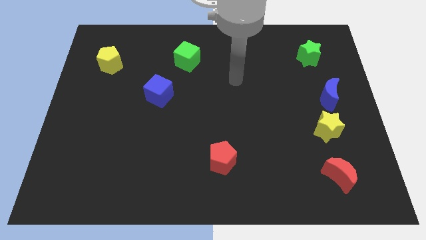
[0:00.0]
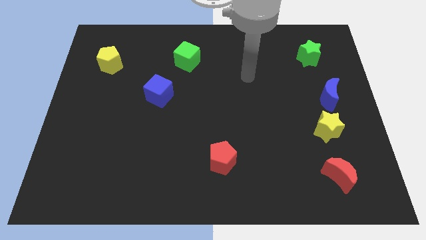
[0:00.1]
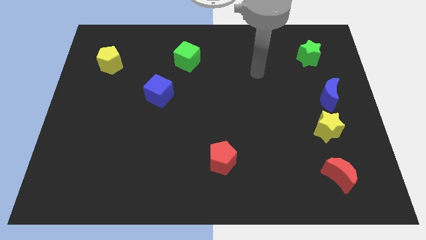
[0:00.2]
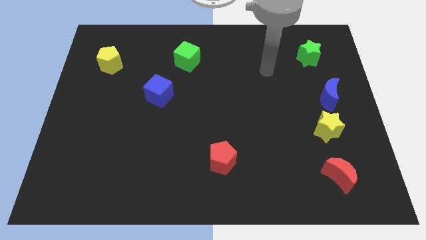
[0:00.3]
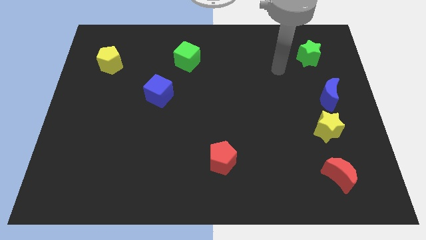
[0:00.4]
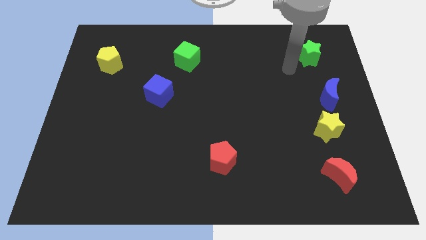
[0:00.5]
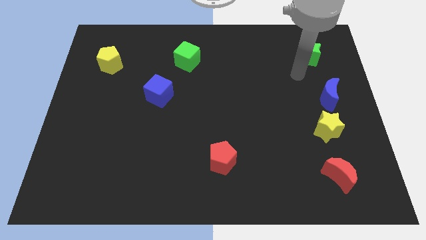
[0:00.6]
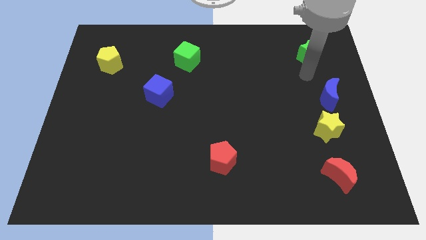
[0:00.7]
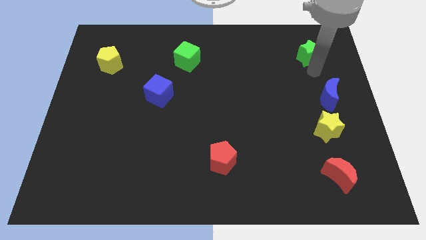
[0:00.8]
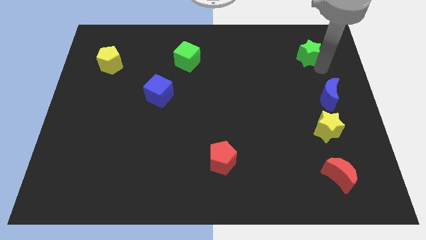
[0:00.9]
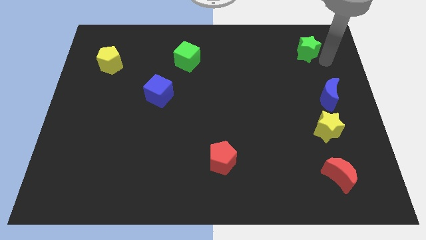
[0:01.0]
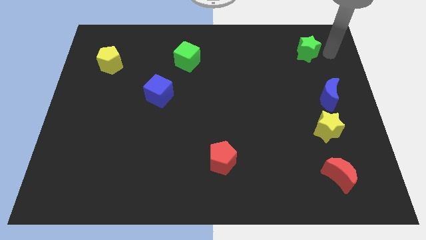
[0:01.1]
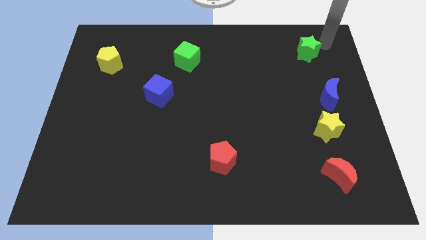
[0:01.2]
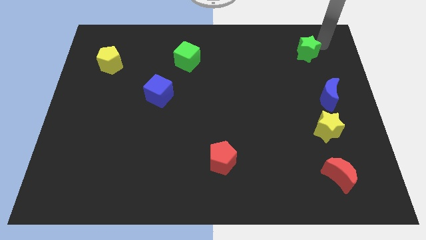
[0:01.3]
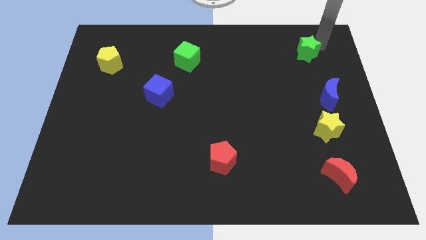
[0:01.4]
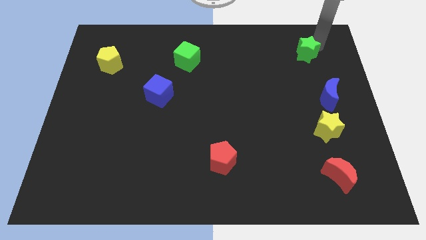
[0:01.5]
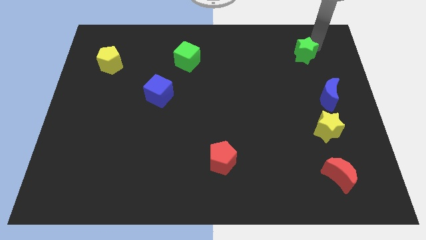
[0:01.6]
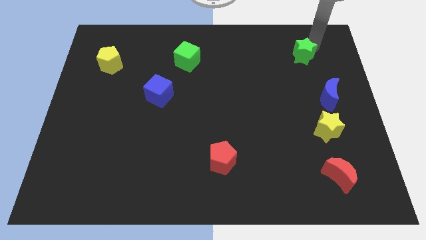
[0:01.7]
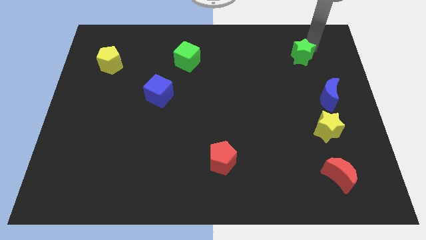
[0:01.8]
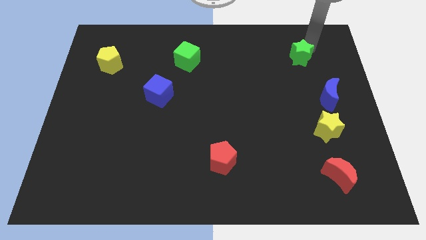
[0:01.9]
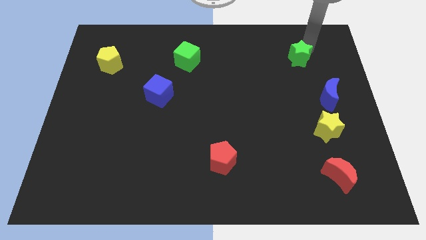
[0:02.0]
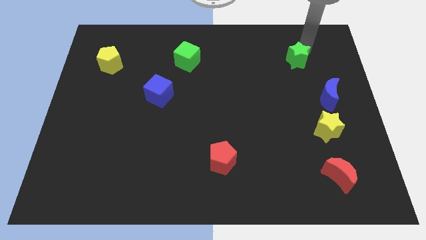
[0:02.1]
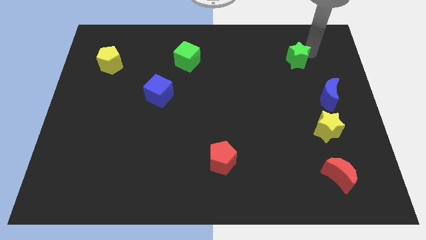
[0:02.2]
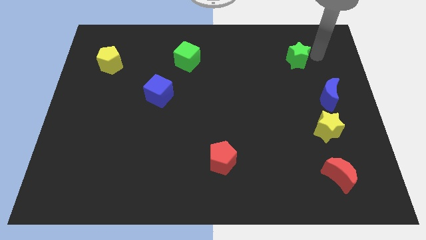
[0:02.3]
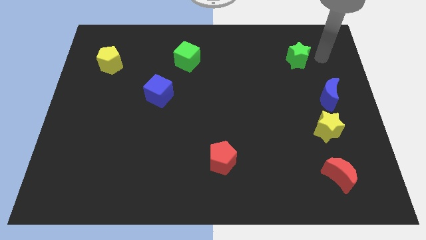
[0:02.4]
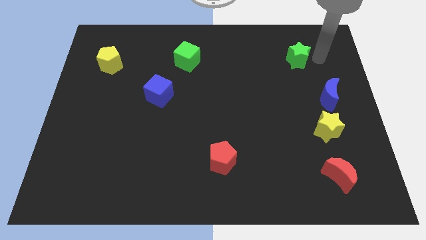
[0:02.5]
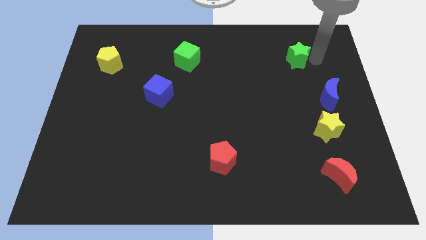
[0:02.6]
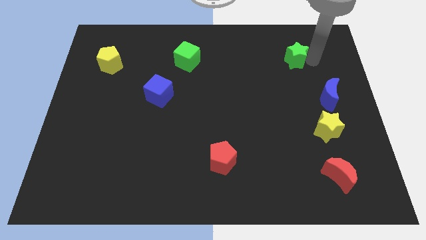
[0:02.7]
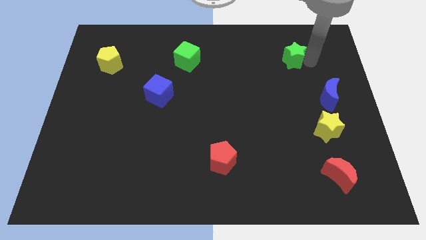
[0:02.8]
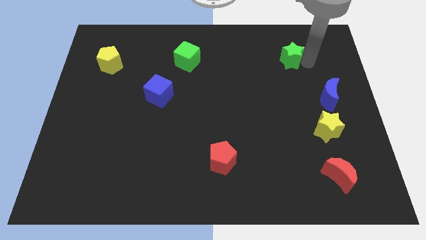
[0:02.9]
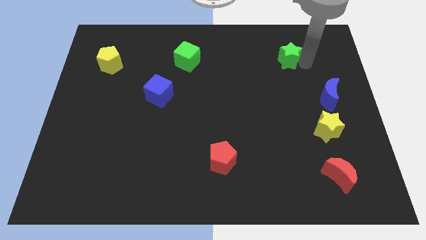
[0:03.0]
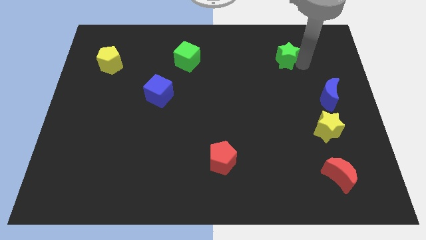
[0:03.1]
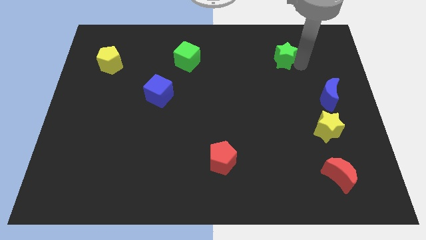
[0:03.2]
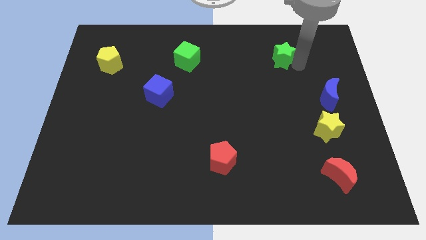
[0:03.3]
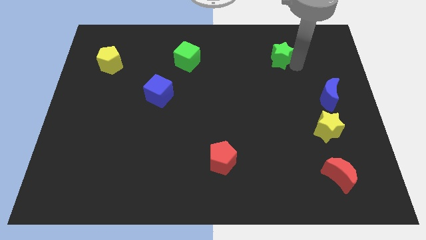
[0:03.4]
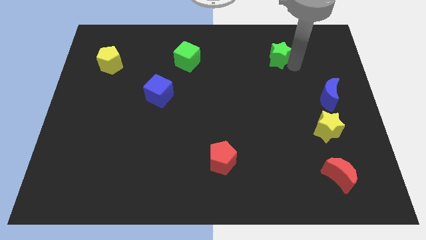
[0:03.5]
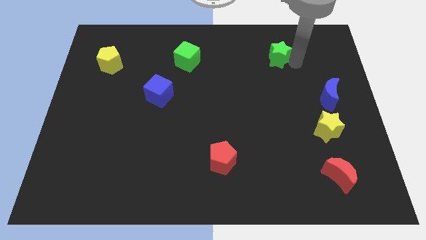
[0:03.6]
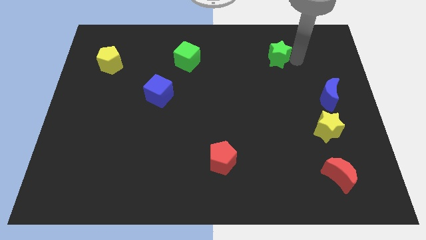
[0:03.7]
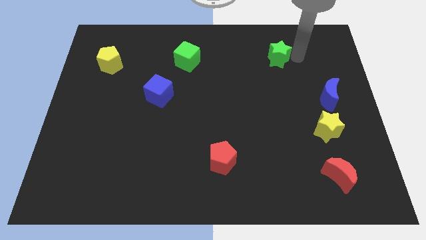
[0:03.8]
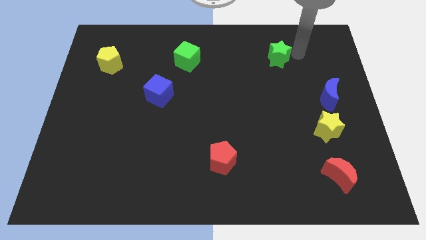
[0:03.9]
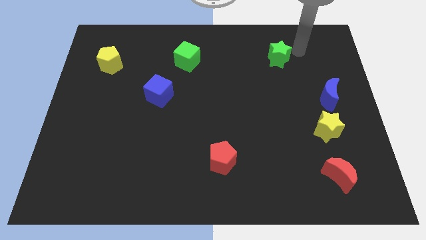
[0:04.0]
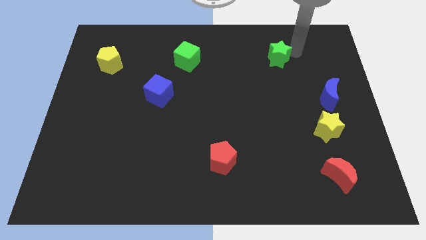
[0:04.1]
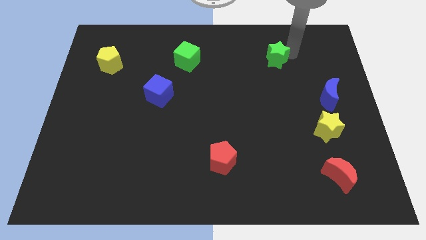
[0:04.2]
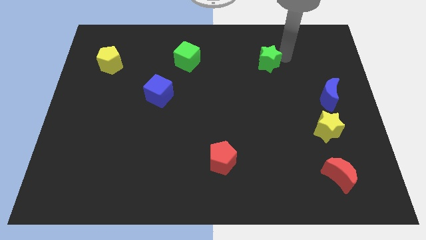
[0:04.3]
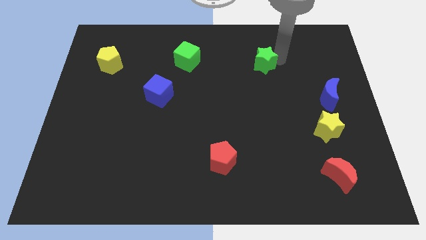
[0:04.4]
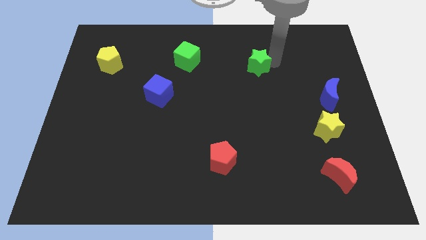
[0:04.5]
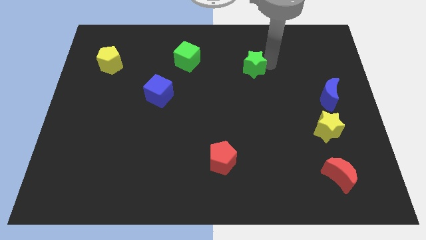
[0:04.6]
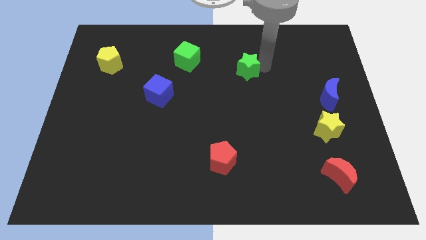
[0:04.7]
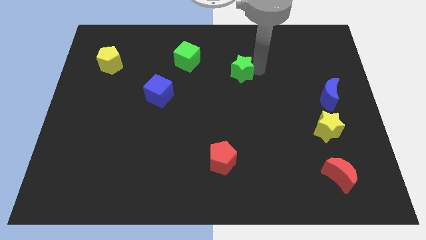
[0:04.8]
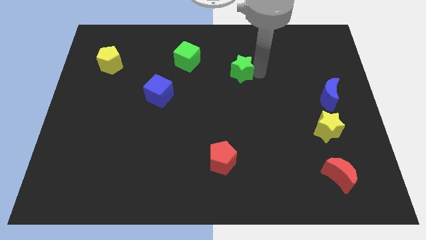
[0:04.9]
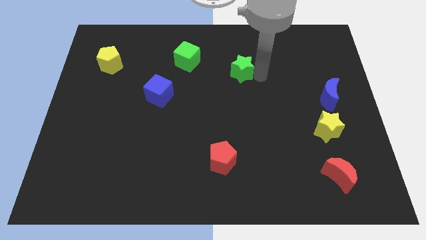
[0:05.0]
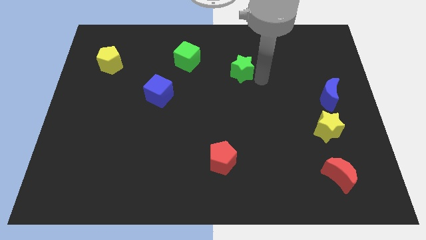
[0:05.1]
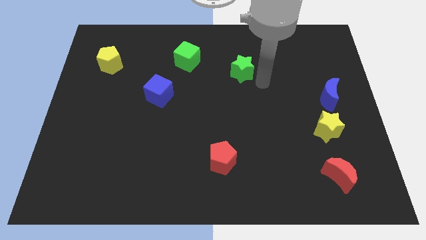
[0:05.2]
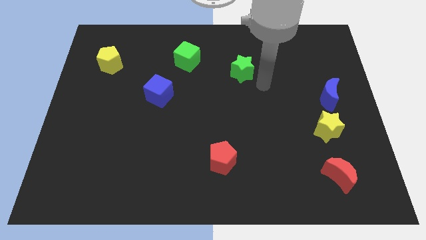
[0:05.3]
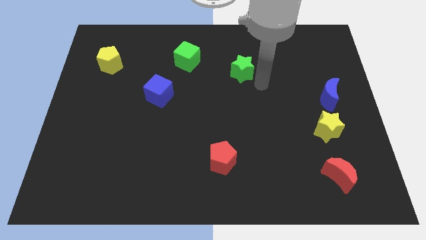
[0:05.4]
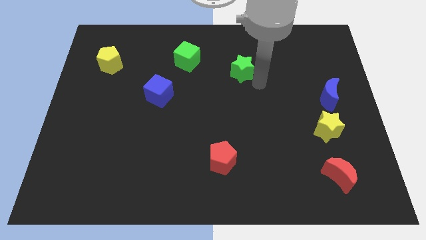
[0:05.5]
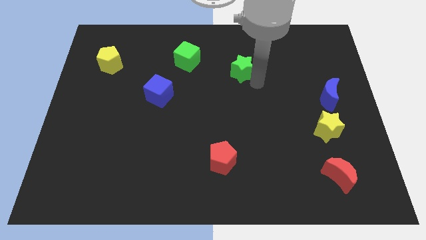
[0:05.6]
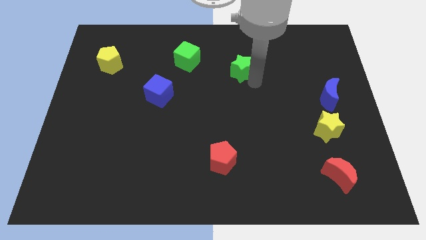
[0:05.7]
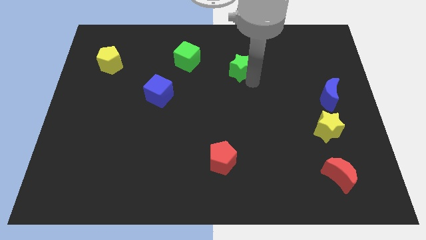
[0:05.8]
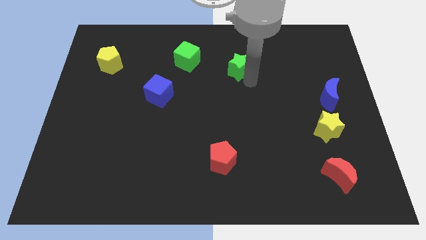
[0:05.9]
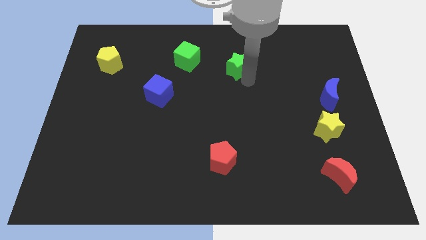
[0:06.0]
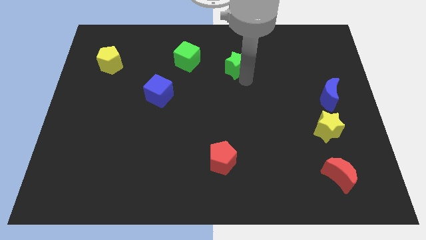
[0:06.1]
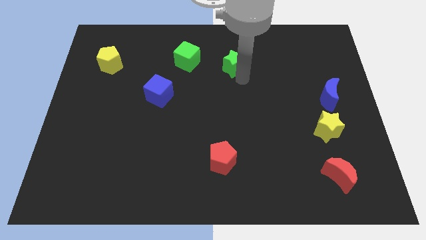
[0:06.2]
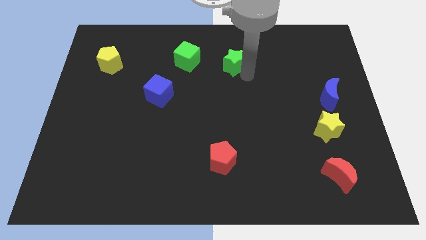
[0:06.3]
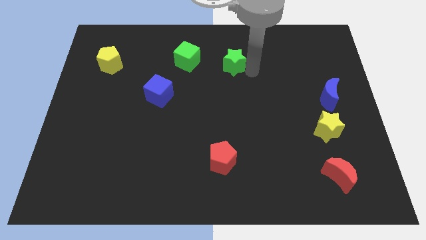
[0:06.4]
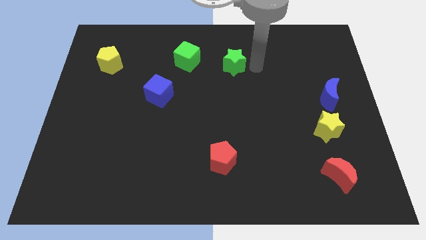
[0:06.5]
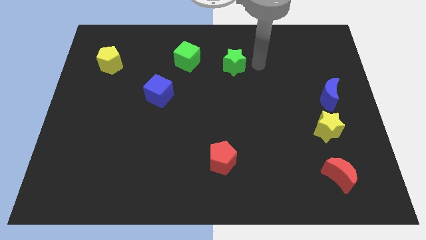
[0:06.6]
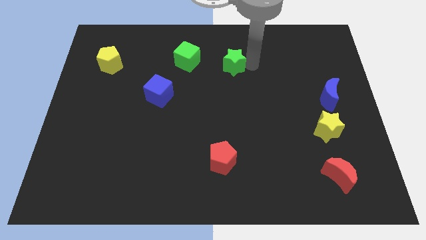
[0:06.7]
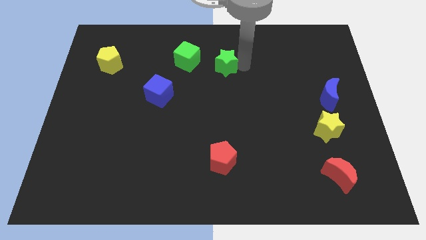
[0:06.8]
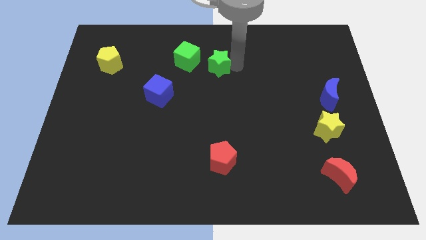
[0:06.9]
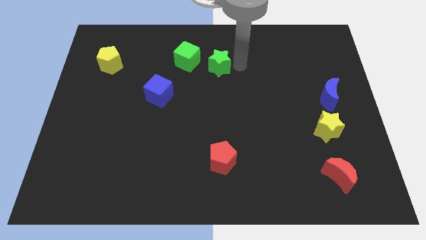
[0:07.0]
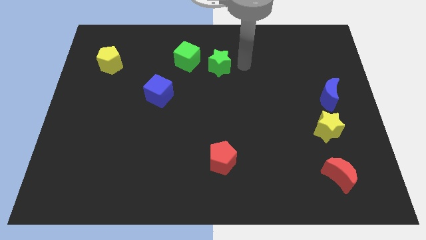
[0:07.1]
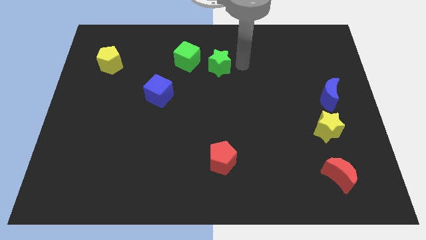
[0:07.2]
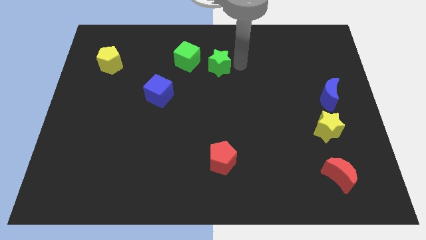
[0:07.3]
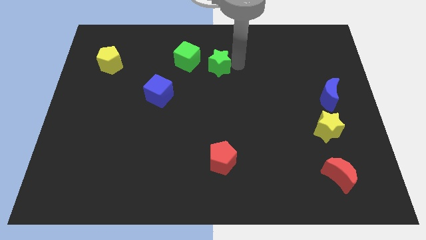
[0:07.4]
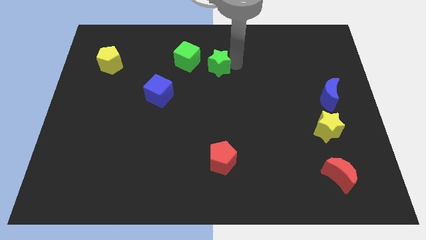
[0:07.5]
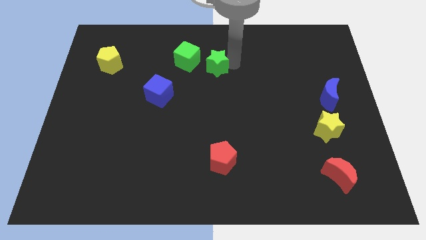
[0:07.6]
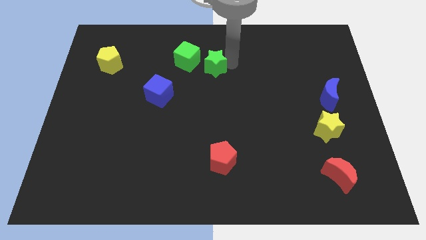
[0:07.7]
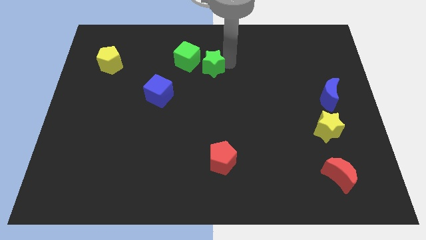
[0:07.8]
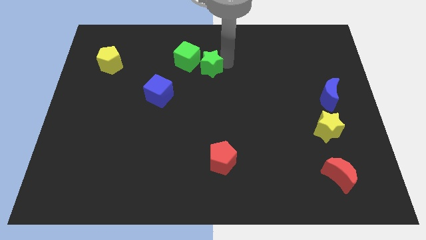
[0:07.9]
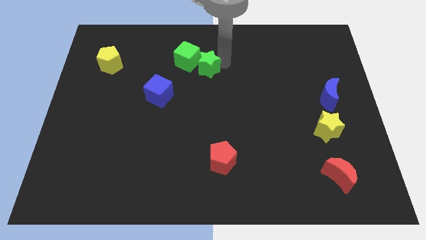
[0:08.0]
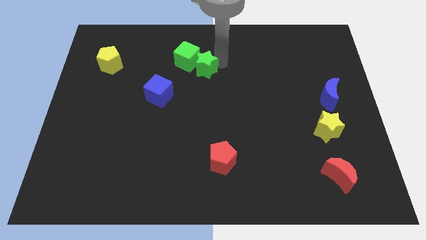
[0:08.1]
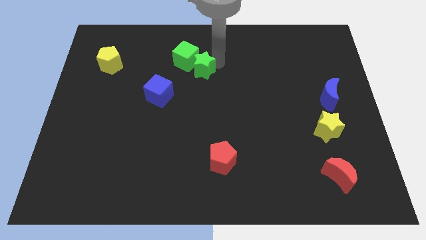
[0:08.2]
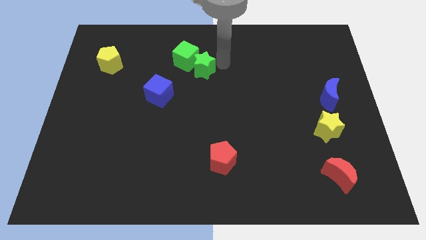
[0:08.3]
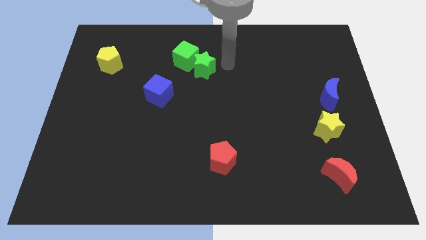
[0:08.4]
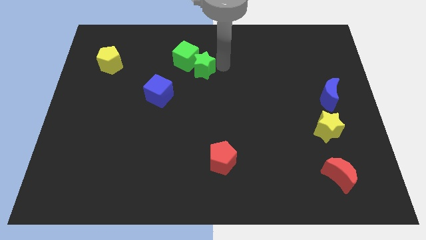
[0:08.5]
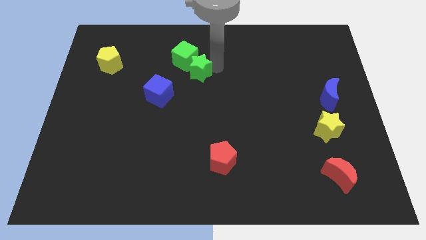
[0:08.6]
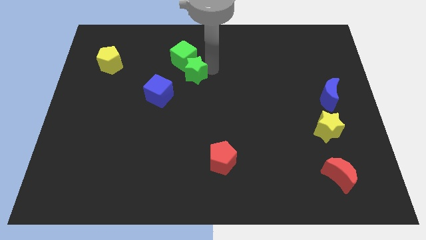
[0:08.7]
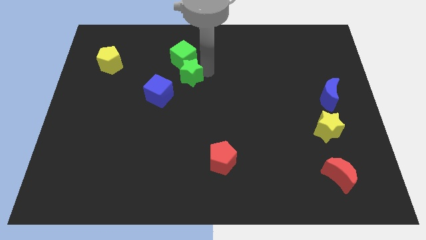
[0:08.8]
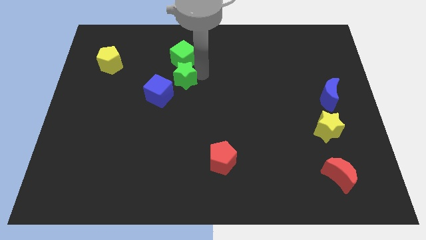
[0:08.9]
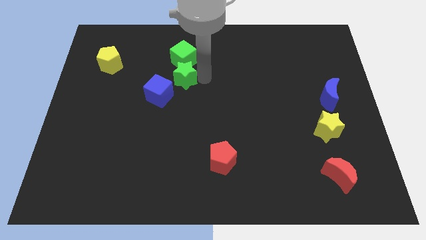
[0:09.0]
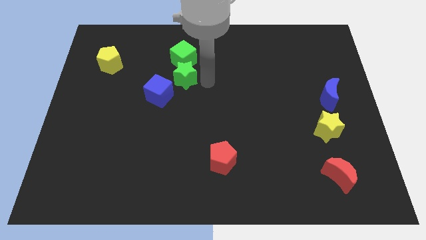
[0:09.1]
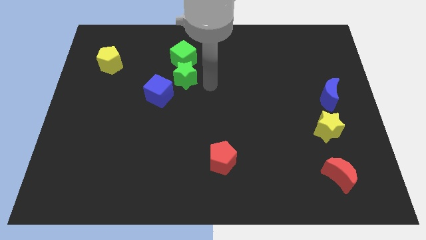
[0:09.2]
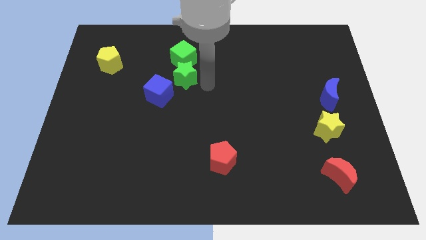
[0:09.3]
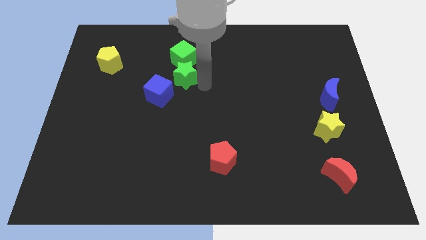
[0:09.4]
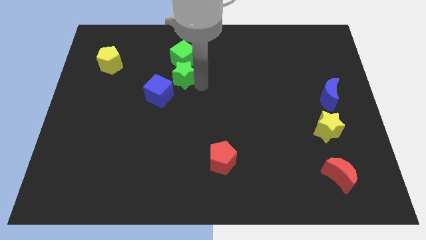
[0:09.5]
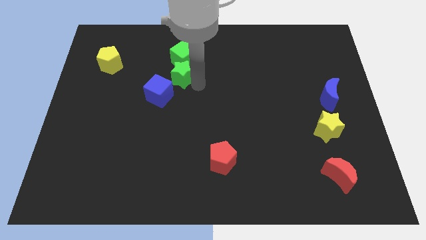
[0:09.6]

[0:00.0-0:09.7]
move the green star diagonally down and to the left of the green cube
